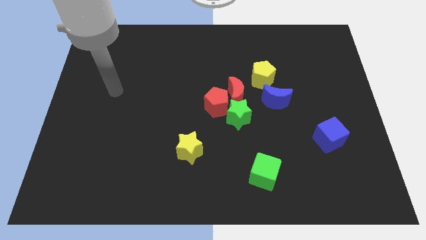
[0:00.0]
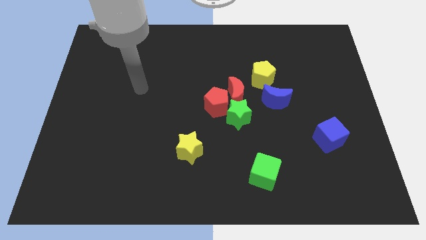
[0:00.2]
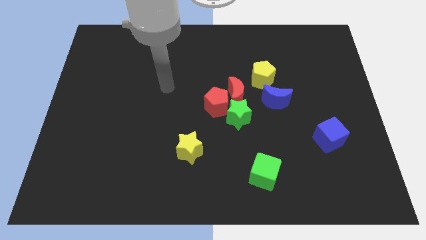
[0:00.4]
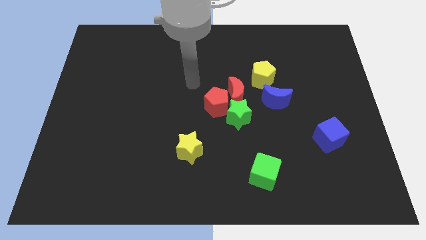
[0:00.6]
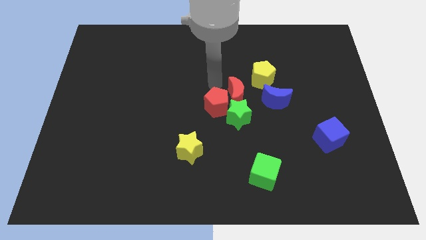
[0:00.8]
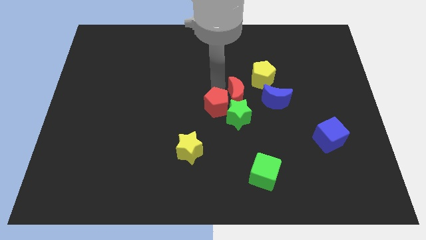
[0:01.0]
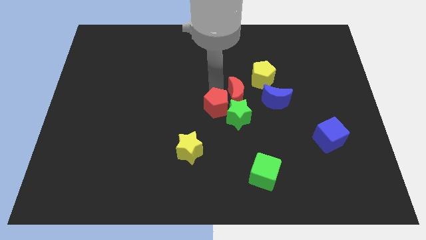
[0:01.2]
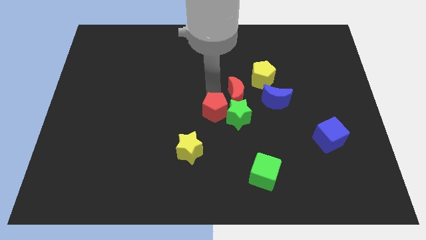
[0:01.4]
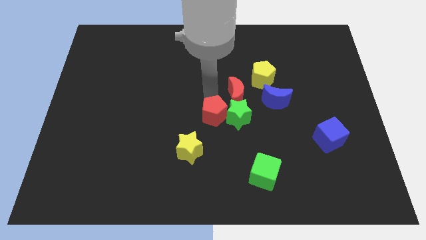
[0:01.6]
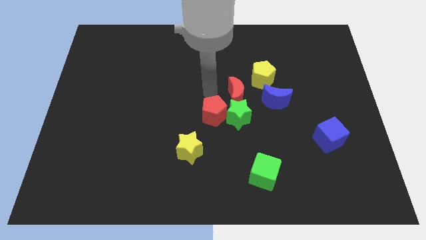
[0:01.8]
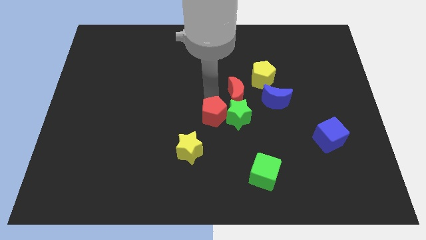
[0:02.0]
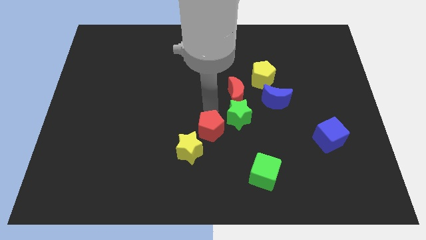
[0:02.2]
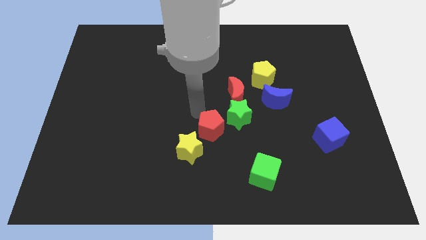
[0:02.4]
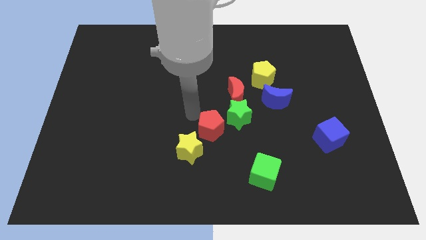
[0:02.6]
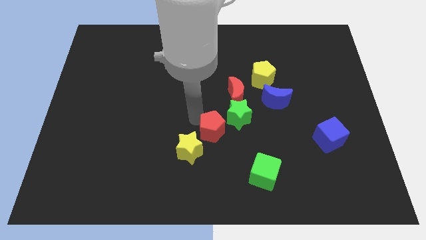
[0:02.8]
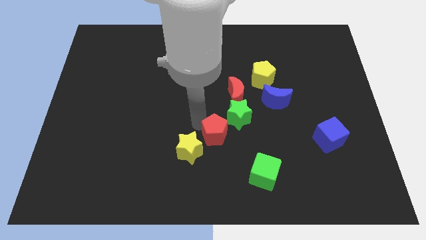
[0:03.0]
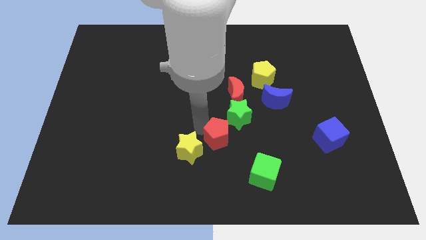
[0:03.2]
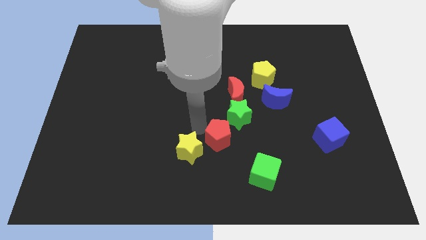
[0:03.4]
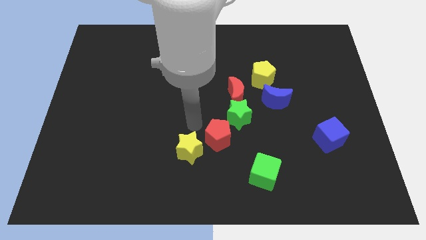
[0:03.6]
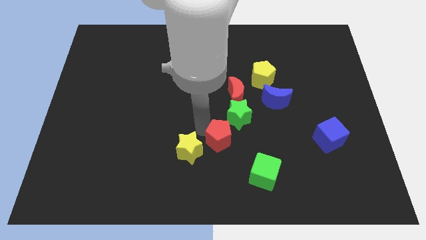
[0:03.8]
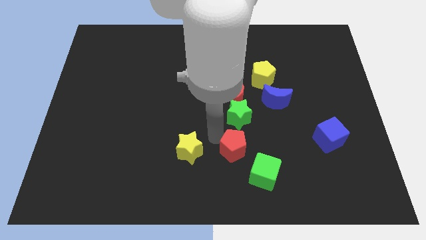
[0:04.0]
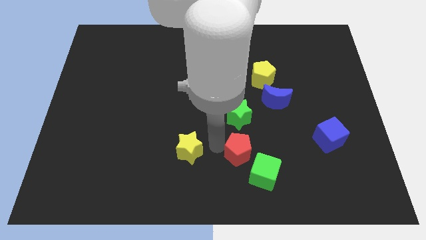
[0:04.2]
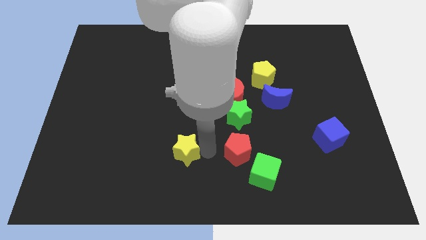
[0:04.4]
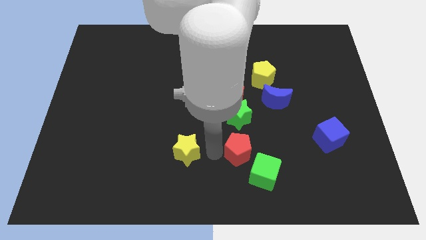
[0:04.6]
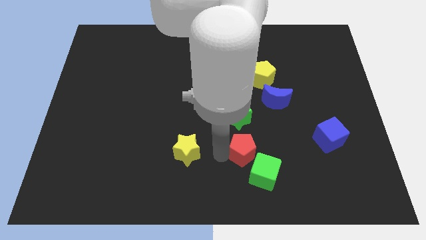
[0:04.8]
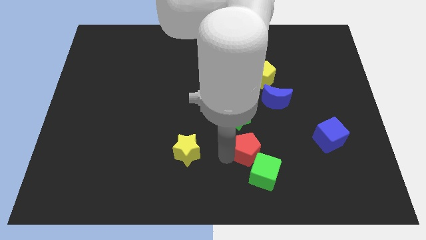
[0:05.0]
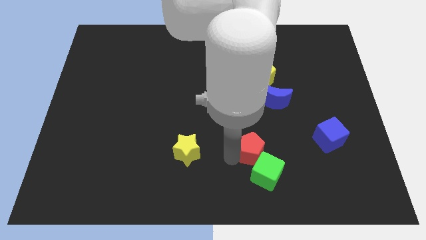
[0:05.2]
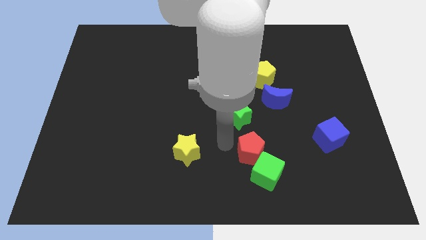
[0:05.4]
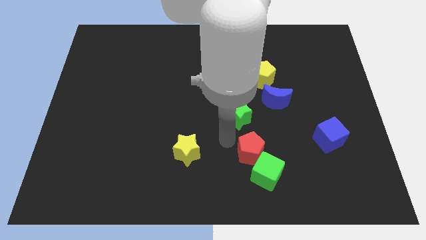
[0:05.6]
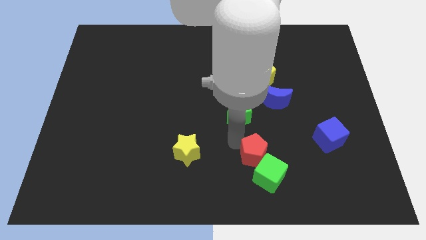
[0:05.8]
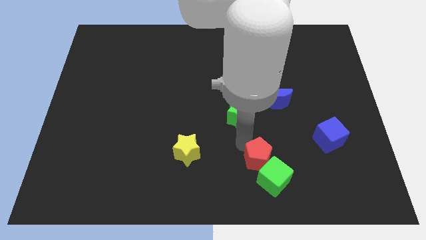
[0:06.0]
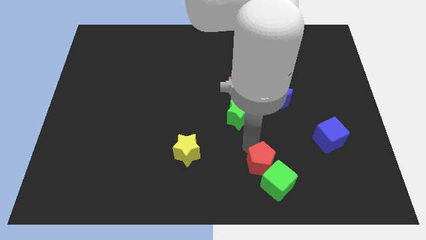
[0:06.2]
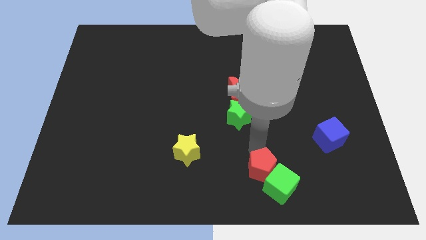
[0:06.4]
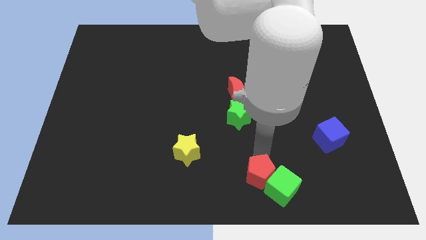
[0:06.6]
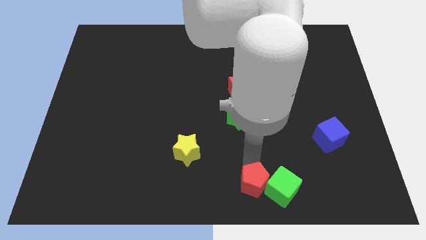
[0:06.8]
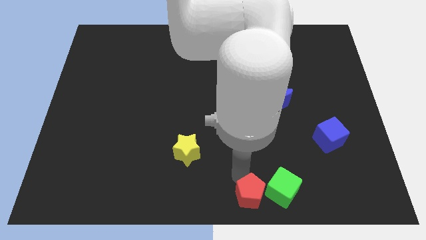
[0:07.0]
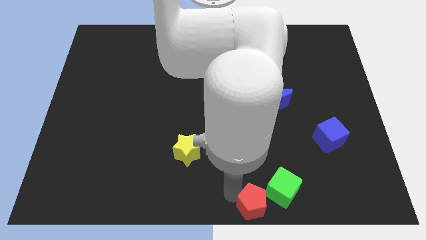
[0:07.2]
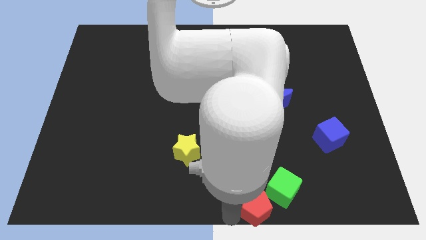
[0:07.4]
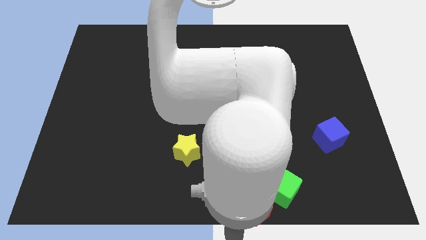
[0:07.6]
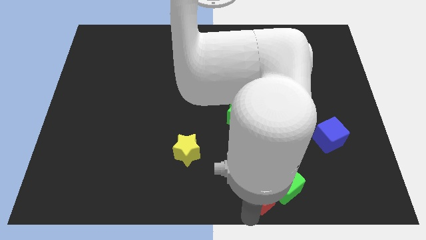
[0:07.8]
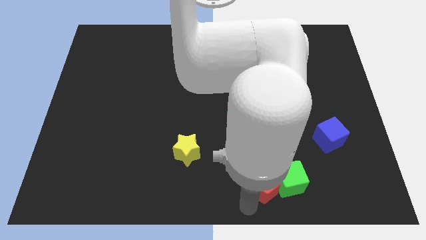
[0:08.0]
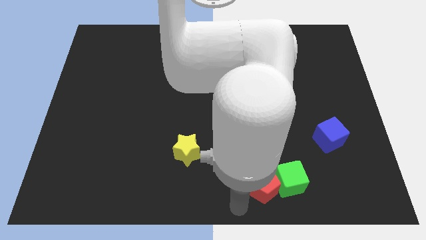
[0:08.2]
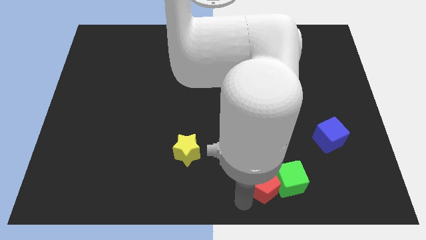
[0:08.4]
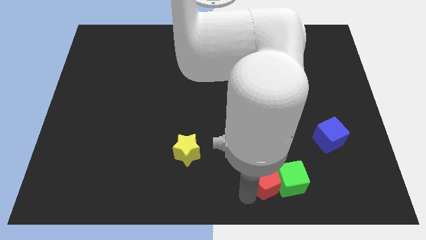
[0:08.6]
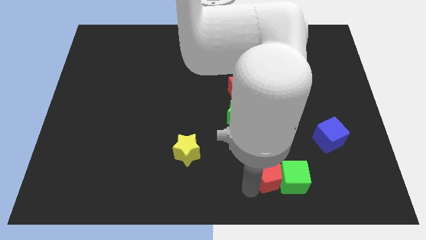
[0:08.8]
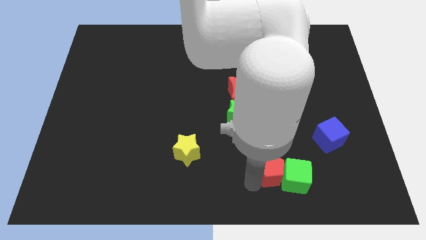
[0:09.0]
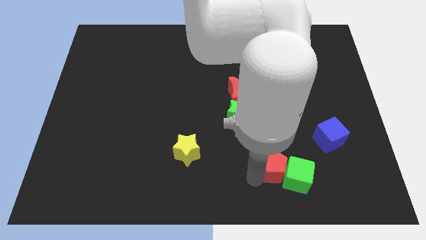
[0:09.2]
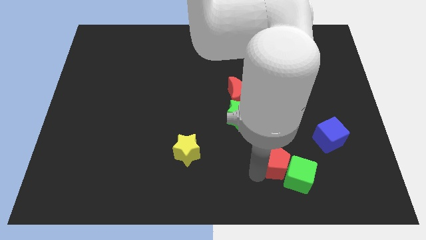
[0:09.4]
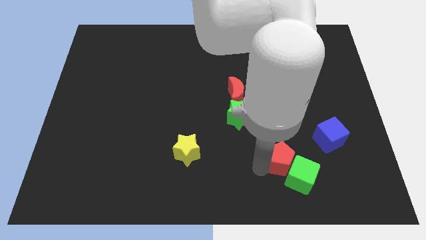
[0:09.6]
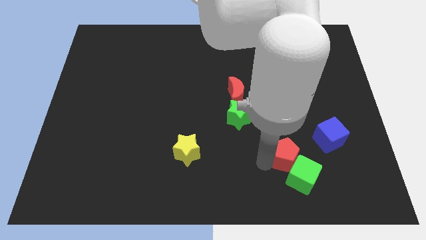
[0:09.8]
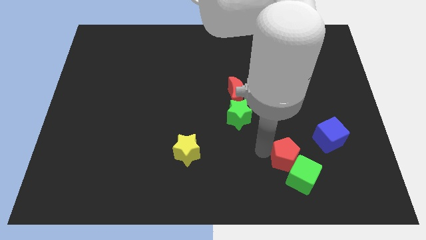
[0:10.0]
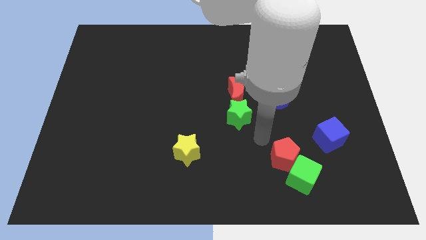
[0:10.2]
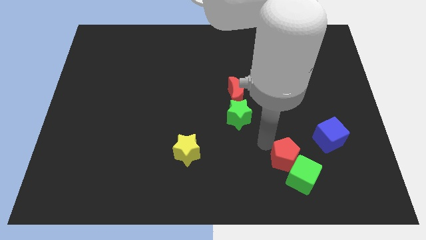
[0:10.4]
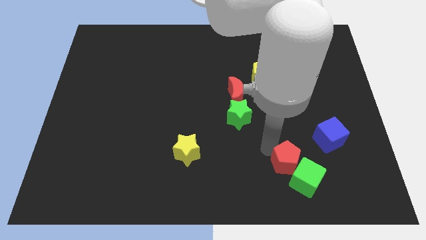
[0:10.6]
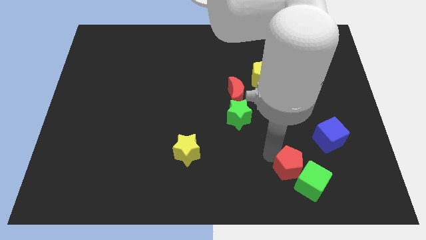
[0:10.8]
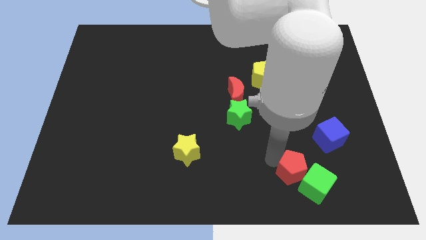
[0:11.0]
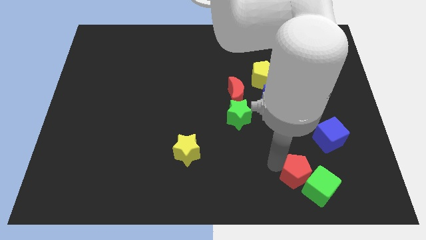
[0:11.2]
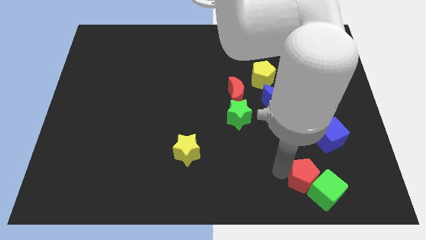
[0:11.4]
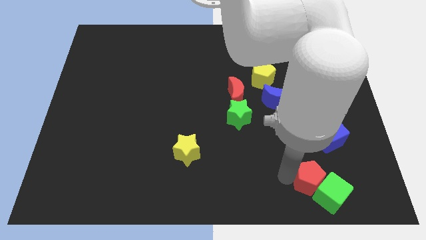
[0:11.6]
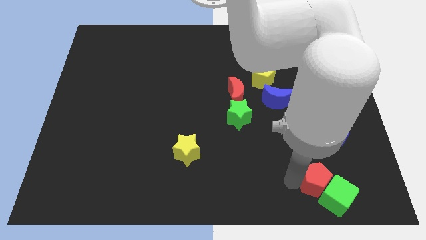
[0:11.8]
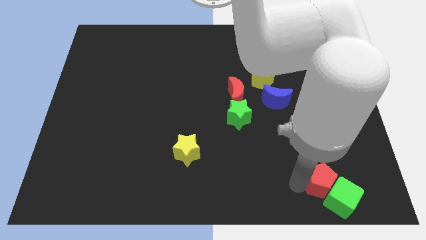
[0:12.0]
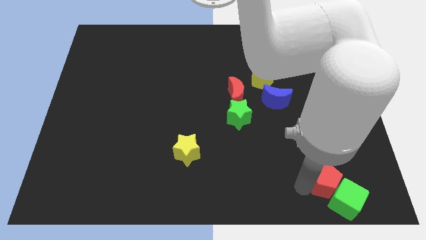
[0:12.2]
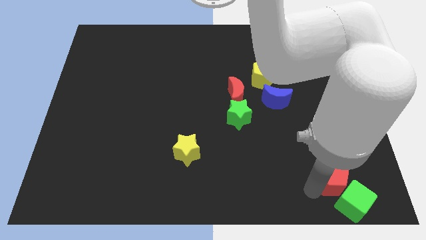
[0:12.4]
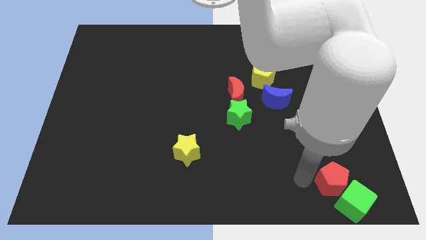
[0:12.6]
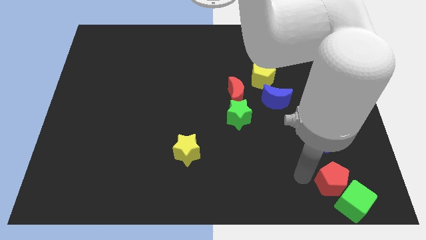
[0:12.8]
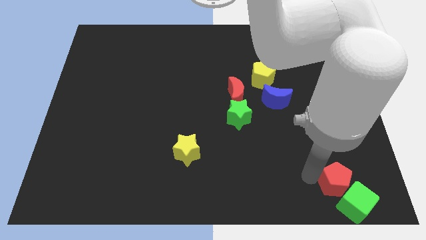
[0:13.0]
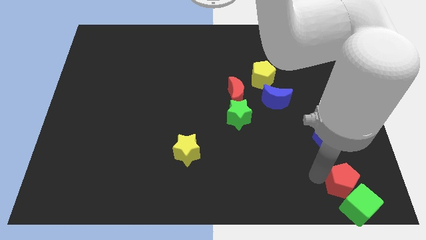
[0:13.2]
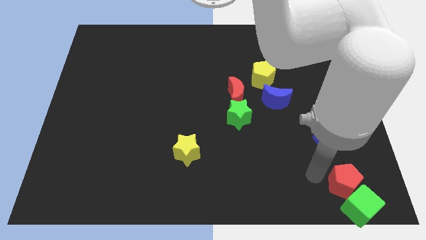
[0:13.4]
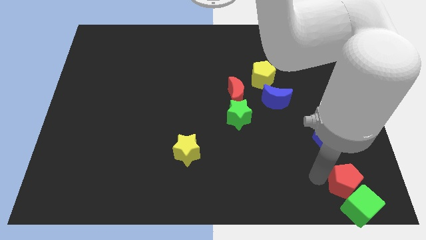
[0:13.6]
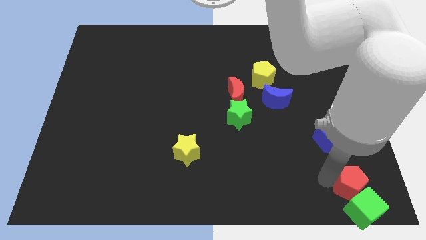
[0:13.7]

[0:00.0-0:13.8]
move the red pentagon to the bottom right

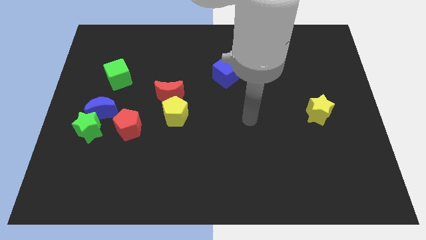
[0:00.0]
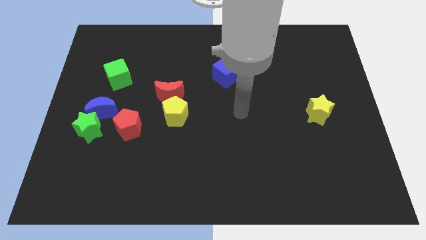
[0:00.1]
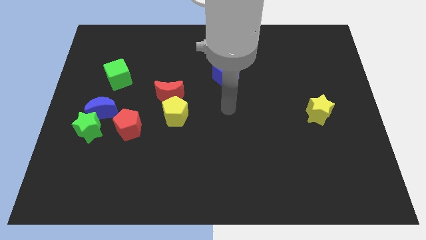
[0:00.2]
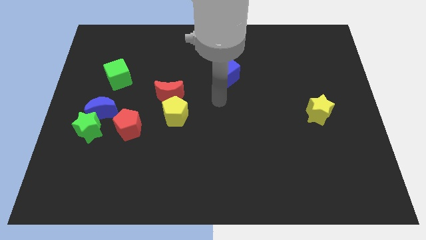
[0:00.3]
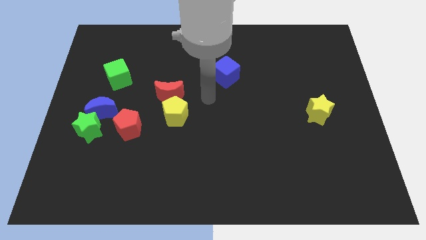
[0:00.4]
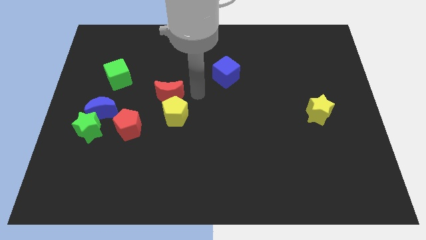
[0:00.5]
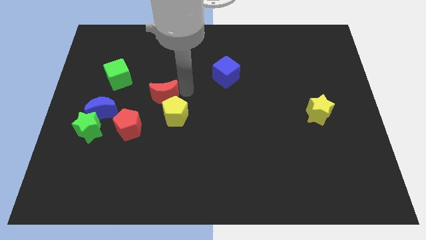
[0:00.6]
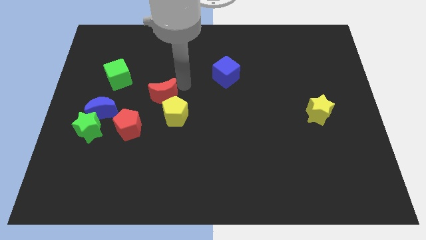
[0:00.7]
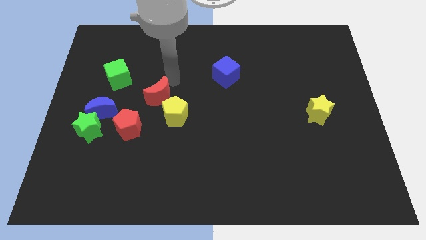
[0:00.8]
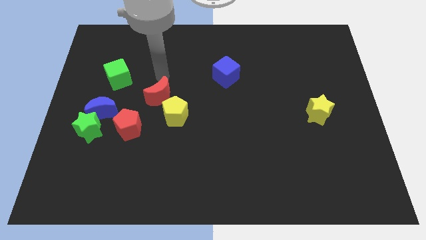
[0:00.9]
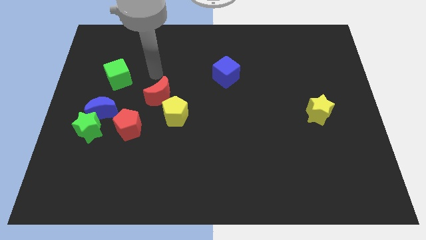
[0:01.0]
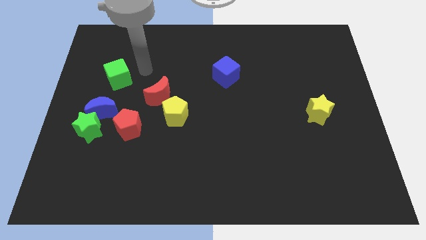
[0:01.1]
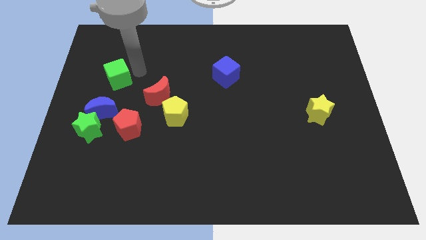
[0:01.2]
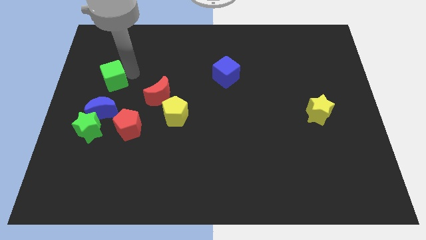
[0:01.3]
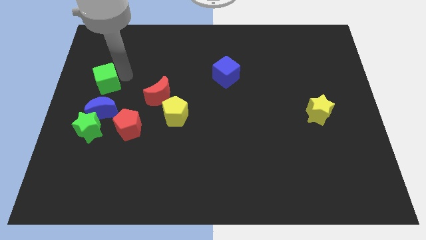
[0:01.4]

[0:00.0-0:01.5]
move the green cube to the left side of the board
